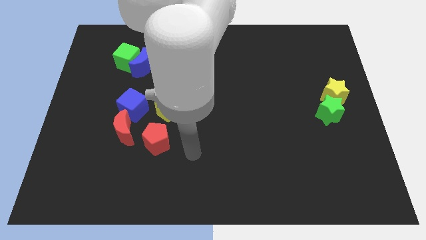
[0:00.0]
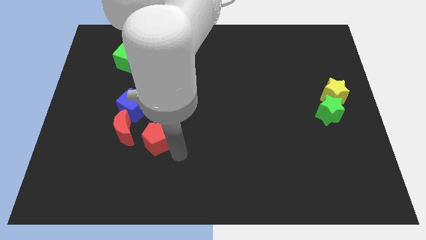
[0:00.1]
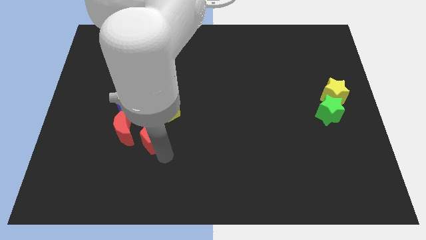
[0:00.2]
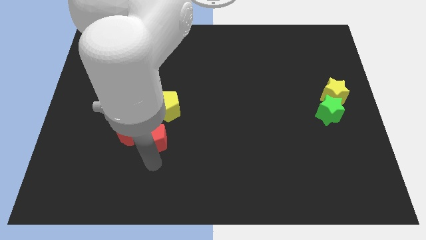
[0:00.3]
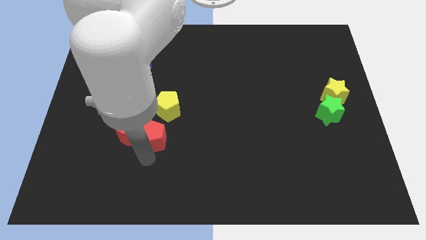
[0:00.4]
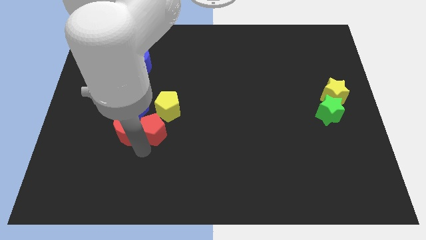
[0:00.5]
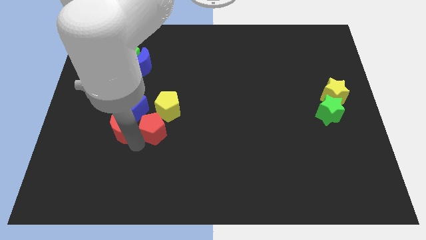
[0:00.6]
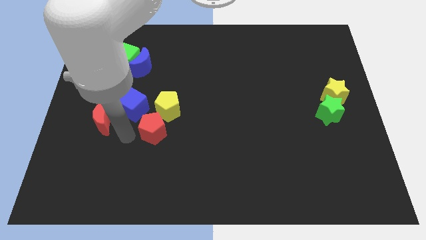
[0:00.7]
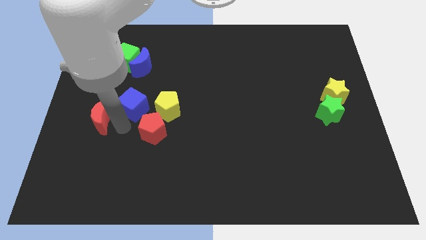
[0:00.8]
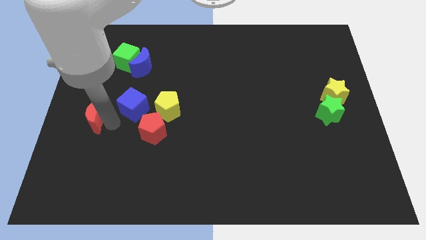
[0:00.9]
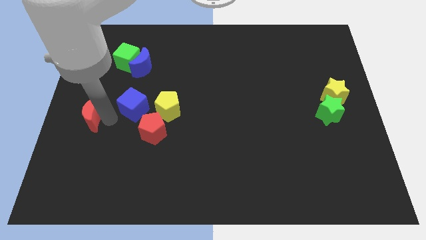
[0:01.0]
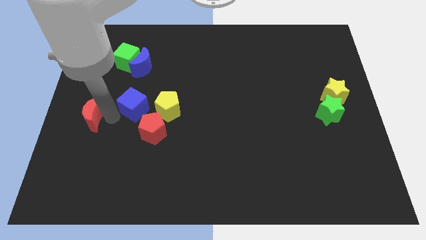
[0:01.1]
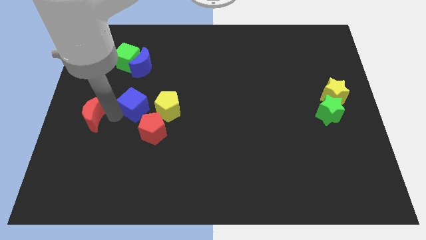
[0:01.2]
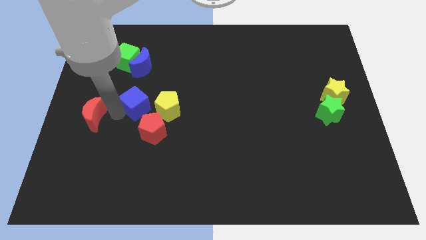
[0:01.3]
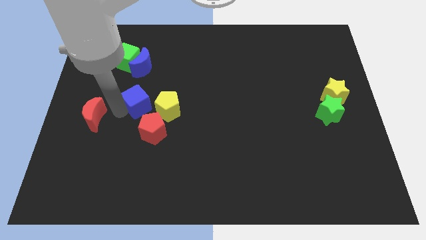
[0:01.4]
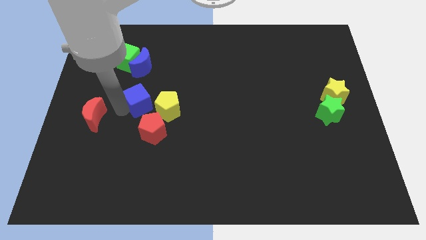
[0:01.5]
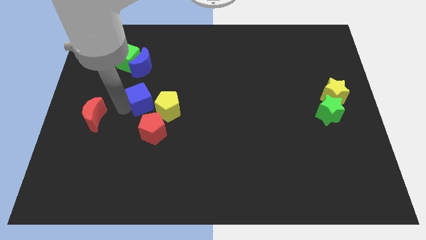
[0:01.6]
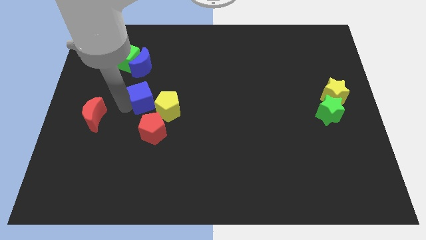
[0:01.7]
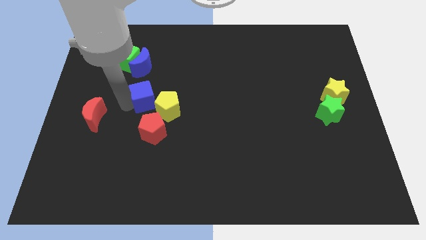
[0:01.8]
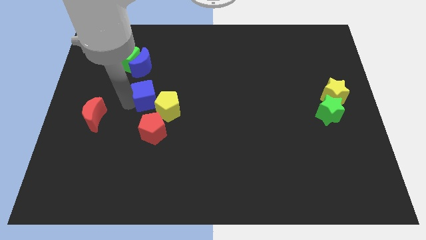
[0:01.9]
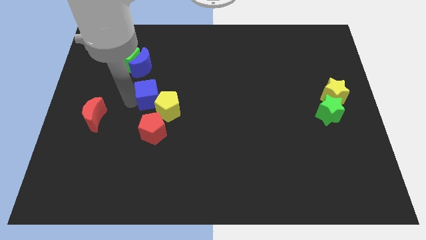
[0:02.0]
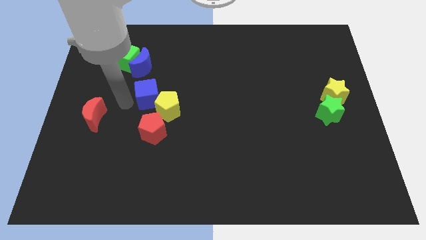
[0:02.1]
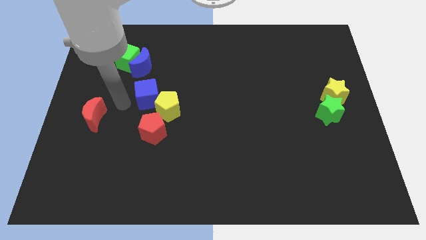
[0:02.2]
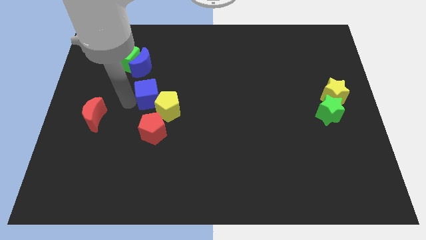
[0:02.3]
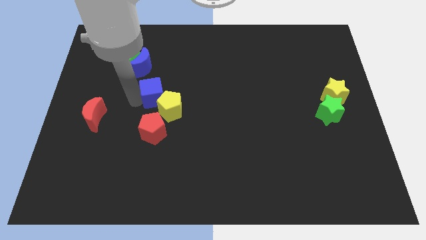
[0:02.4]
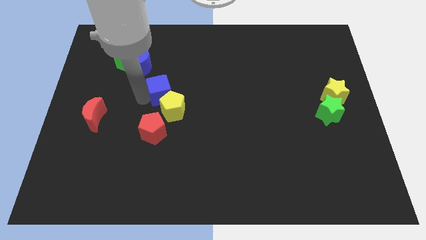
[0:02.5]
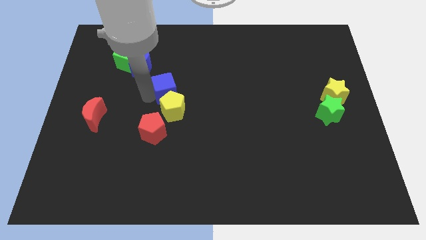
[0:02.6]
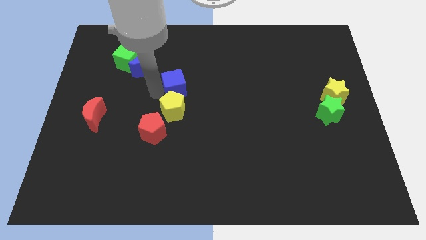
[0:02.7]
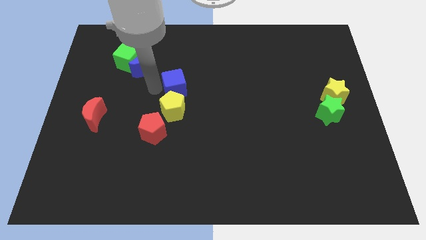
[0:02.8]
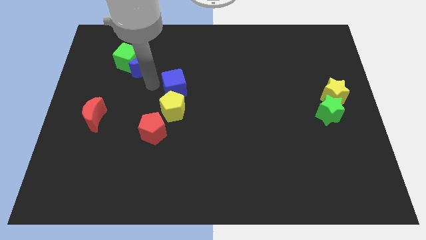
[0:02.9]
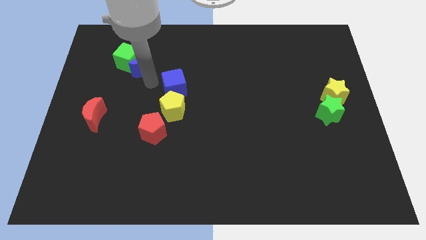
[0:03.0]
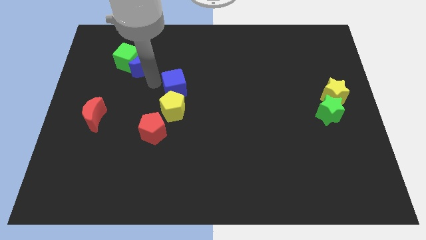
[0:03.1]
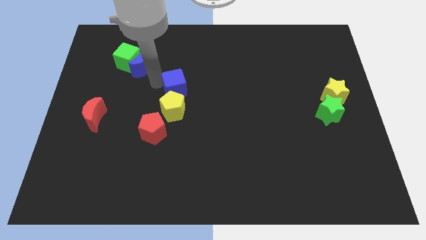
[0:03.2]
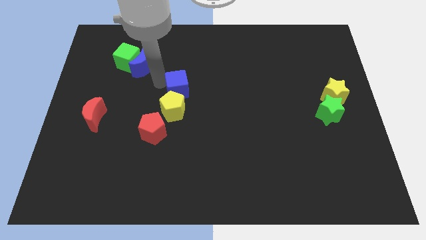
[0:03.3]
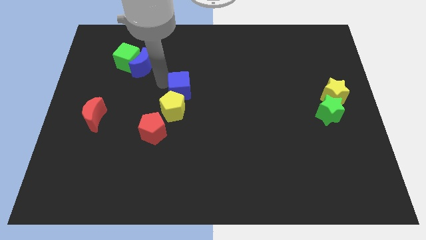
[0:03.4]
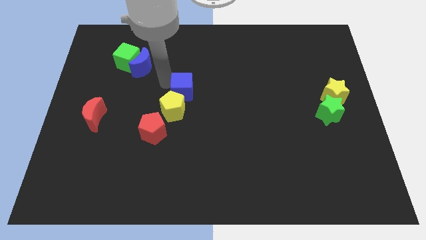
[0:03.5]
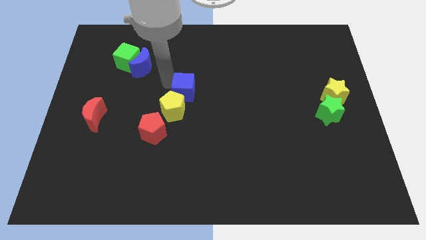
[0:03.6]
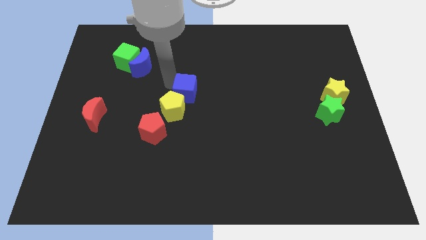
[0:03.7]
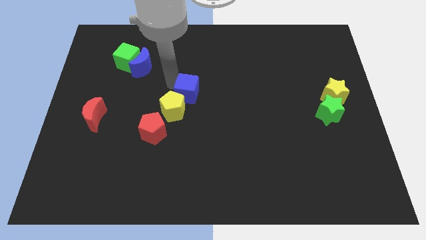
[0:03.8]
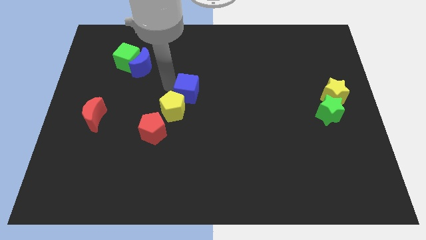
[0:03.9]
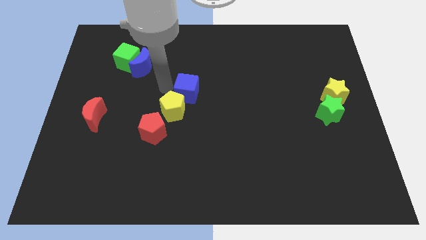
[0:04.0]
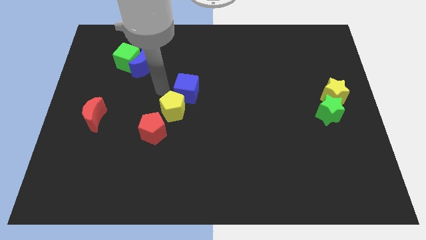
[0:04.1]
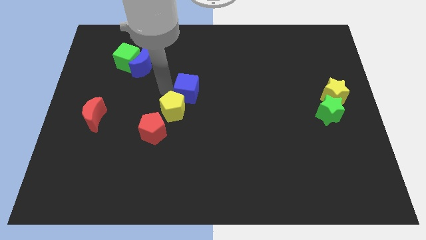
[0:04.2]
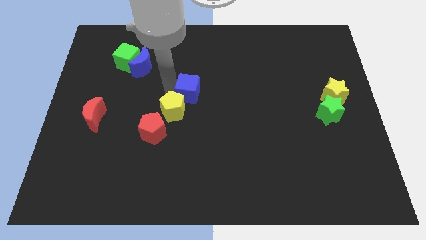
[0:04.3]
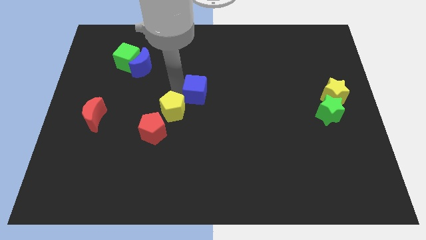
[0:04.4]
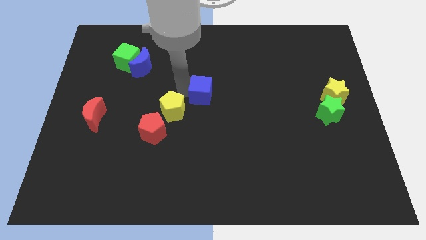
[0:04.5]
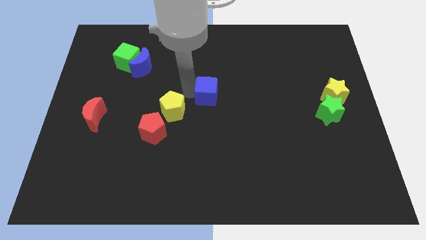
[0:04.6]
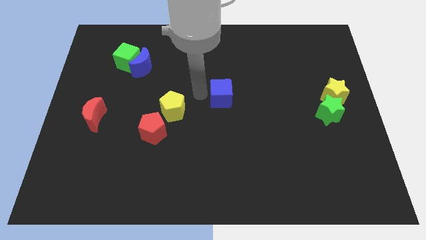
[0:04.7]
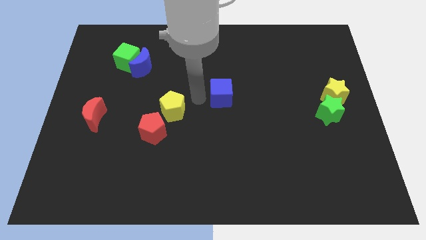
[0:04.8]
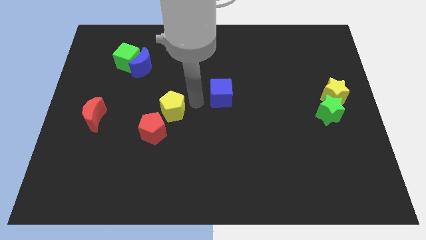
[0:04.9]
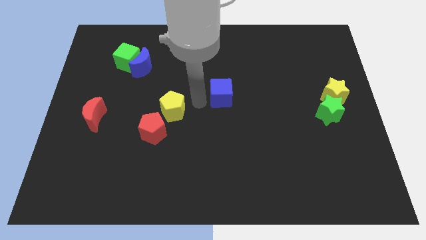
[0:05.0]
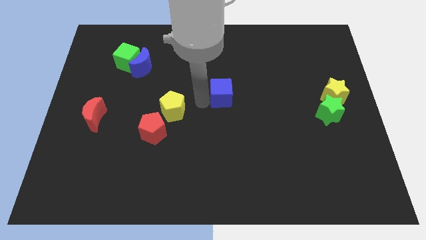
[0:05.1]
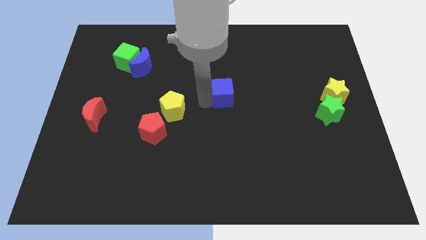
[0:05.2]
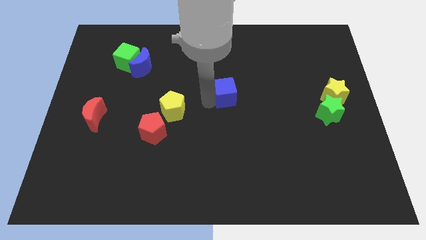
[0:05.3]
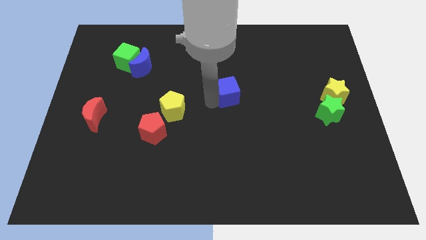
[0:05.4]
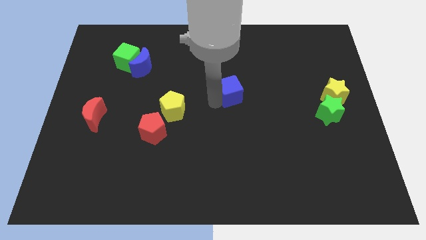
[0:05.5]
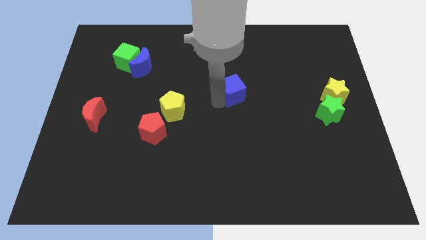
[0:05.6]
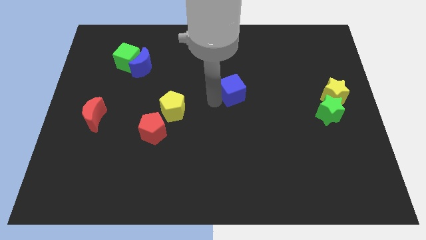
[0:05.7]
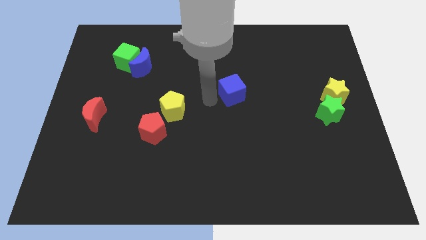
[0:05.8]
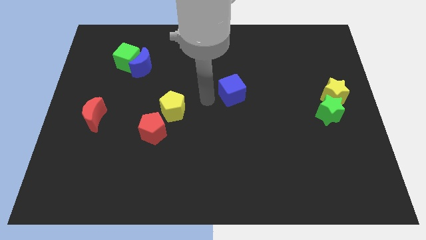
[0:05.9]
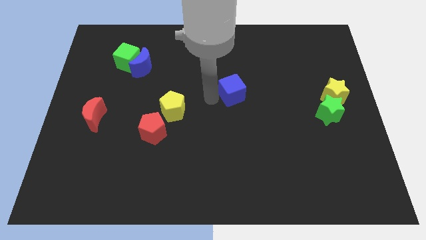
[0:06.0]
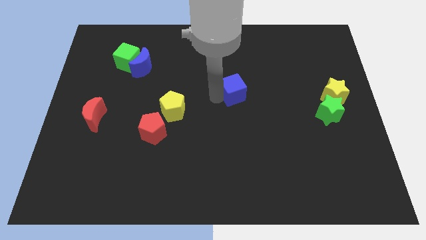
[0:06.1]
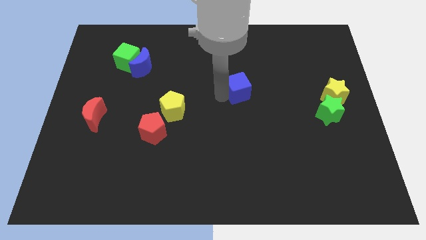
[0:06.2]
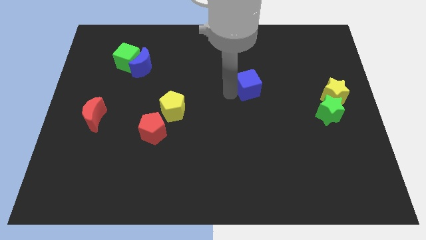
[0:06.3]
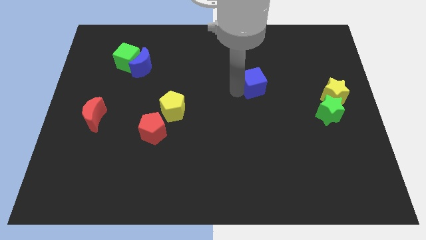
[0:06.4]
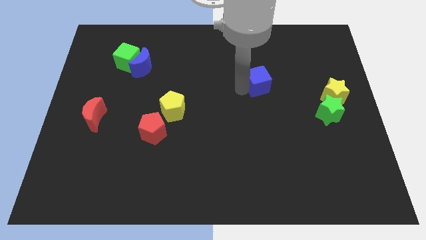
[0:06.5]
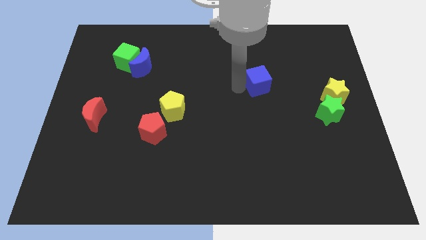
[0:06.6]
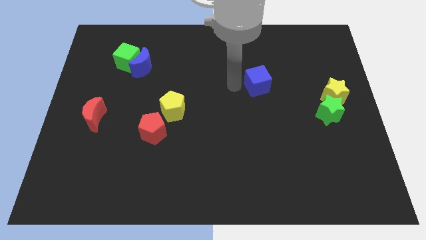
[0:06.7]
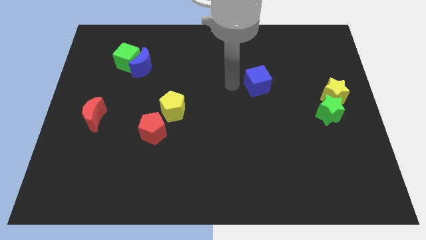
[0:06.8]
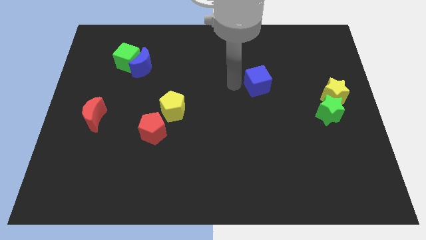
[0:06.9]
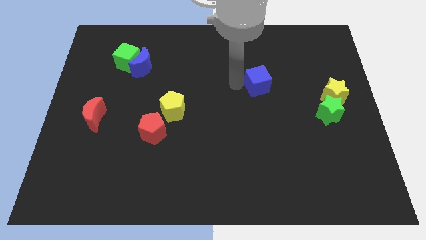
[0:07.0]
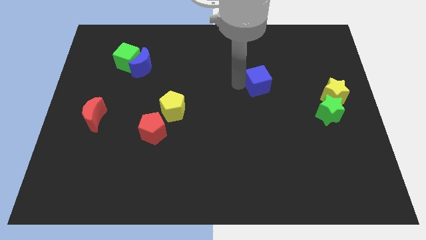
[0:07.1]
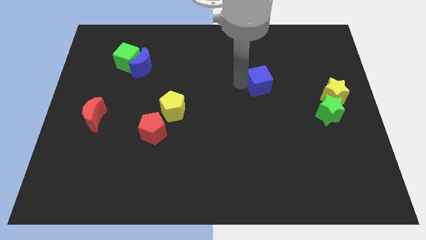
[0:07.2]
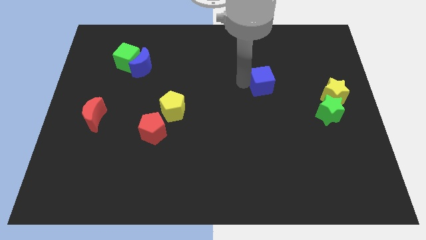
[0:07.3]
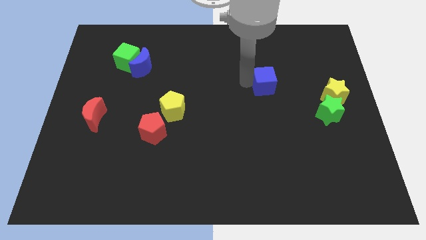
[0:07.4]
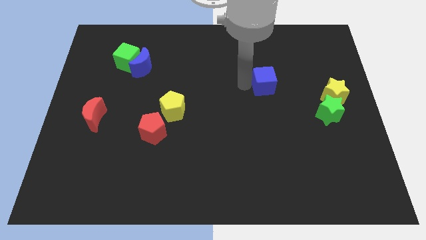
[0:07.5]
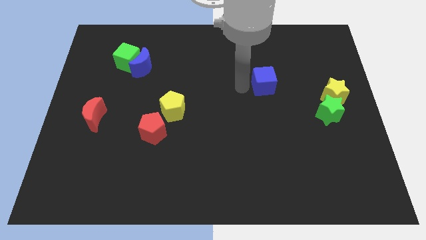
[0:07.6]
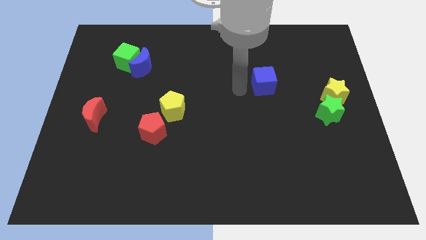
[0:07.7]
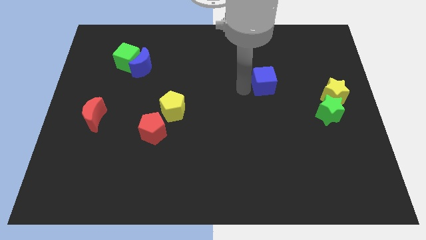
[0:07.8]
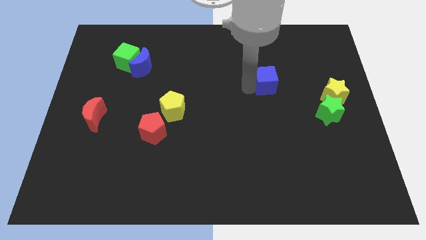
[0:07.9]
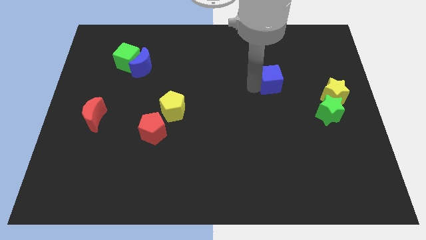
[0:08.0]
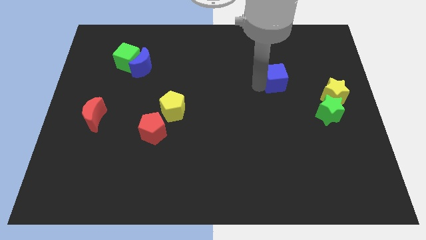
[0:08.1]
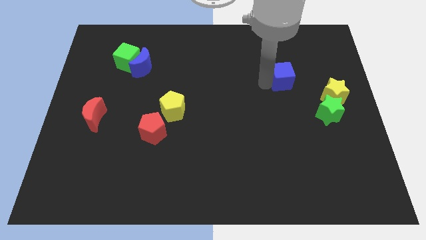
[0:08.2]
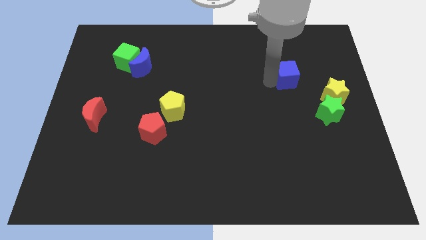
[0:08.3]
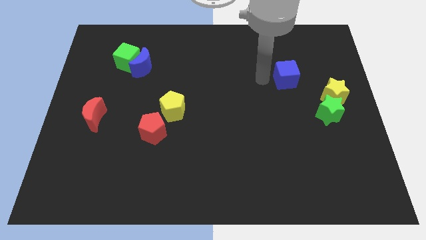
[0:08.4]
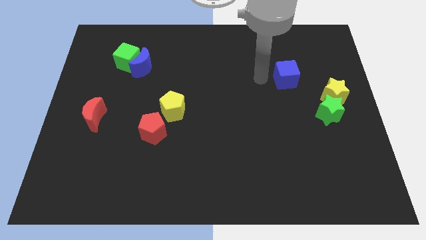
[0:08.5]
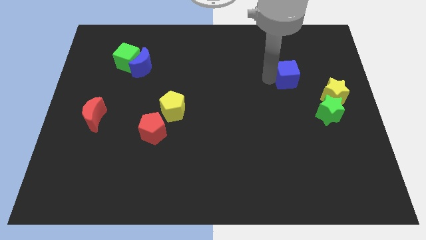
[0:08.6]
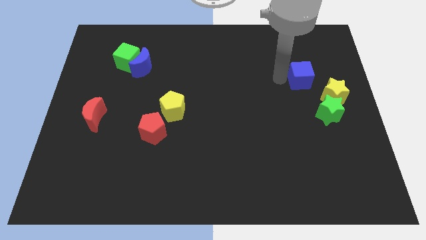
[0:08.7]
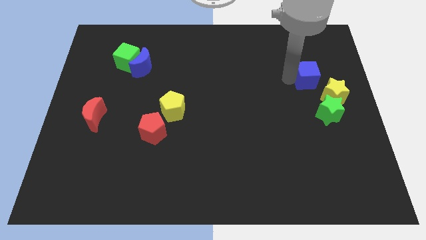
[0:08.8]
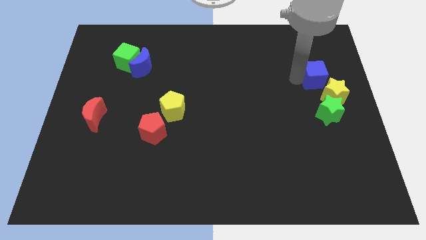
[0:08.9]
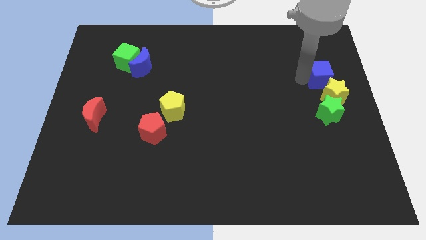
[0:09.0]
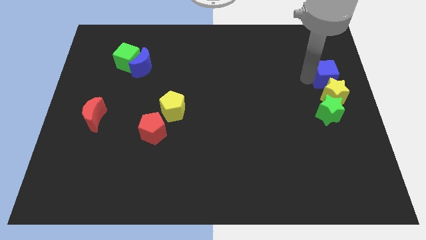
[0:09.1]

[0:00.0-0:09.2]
put the blue cube to the right side
